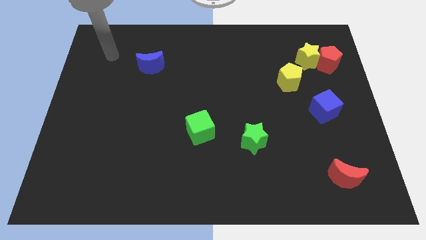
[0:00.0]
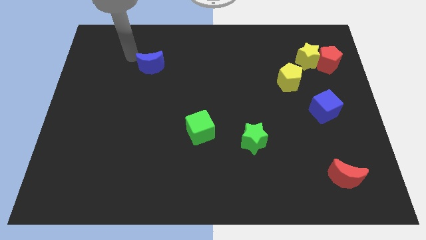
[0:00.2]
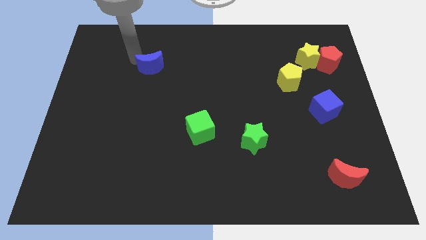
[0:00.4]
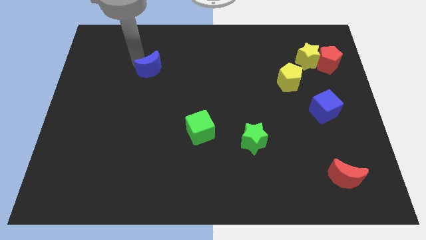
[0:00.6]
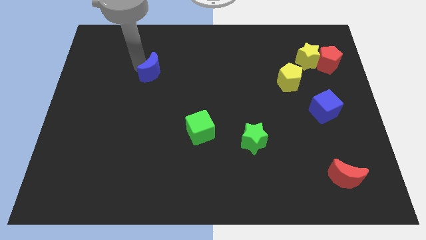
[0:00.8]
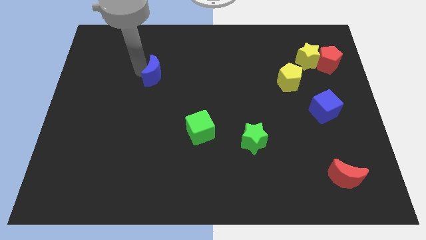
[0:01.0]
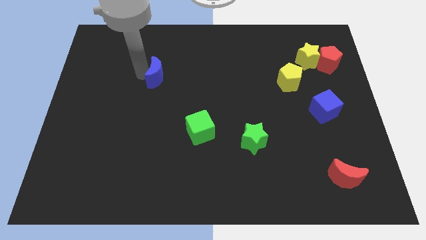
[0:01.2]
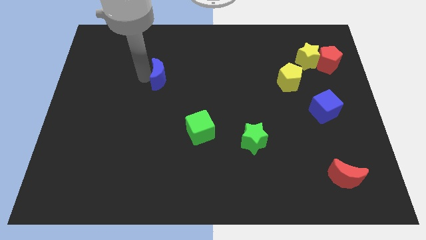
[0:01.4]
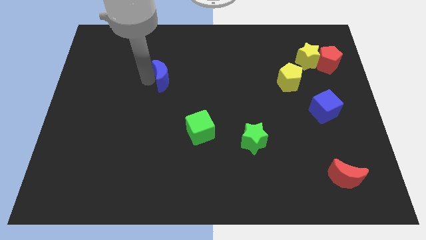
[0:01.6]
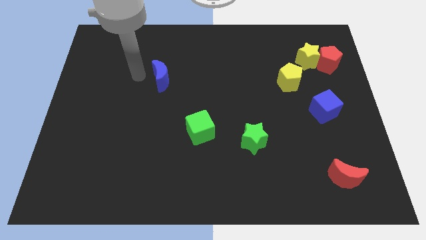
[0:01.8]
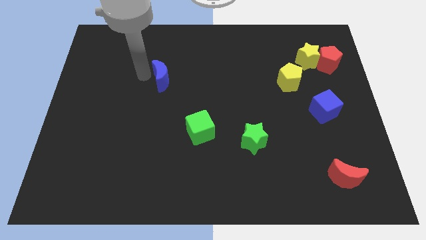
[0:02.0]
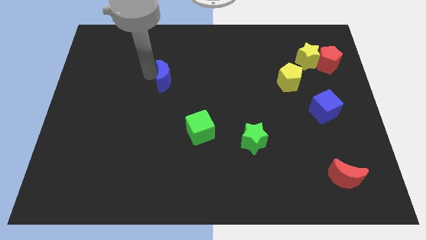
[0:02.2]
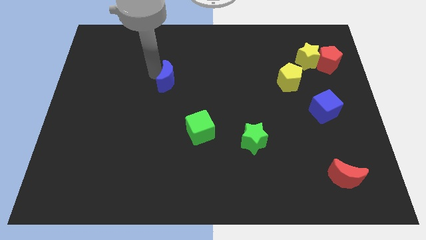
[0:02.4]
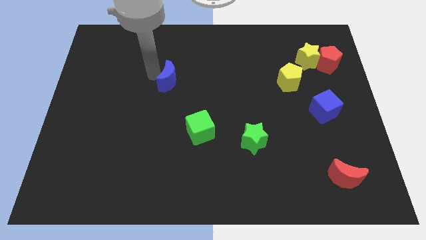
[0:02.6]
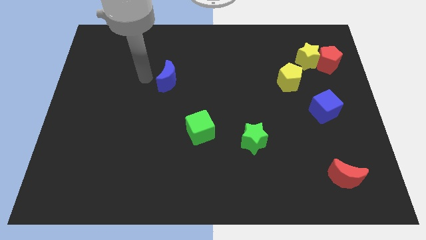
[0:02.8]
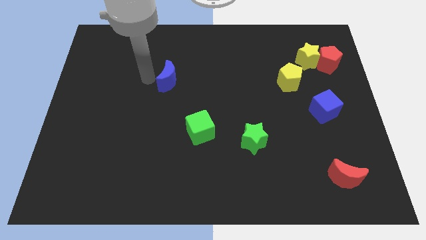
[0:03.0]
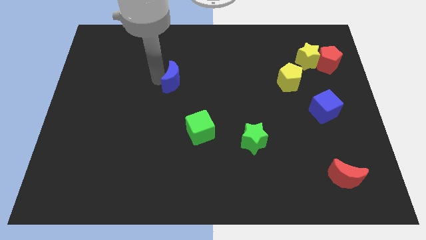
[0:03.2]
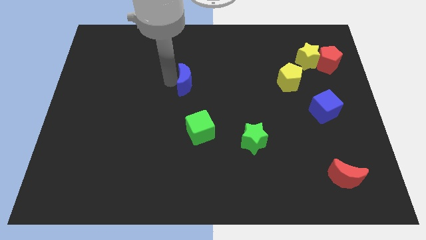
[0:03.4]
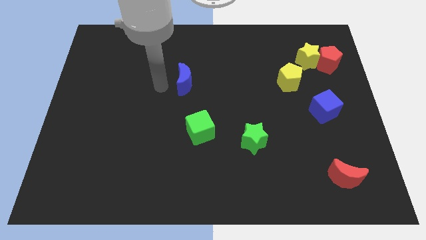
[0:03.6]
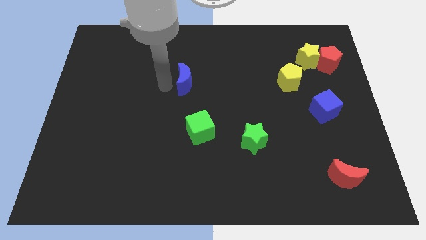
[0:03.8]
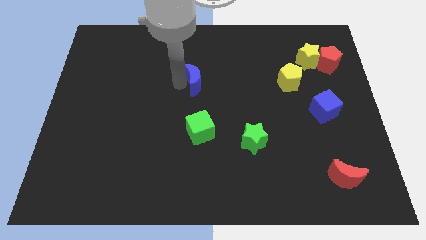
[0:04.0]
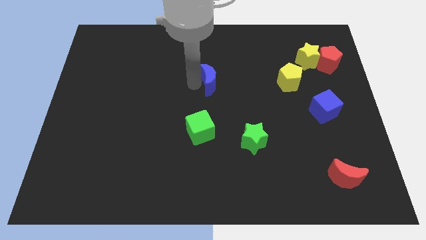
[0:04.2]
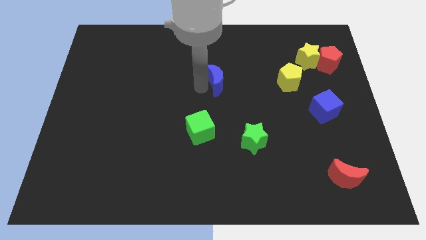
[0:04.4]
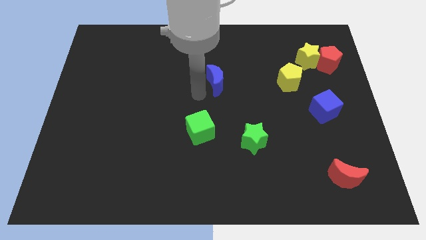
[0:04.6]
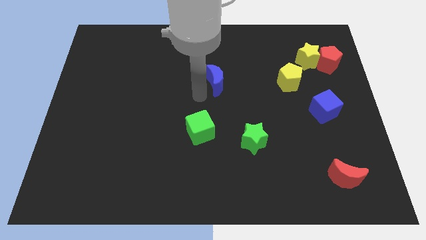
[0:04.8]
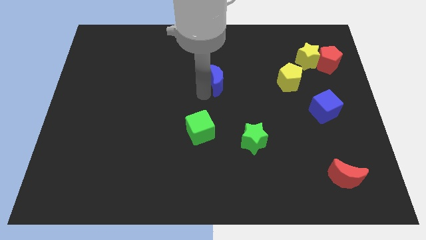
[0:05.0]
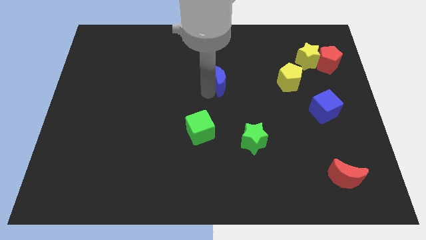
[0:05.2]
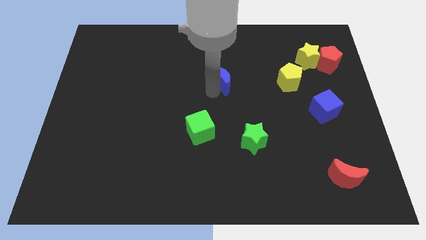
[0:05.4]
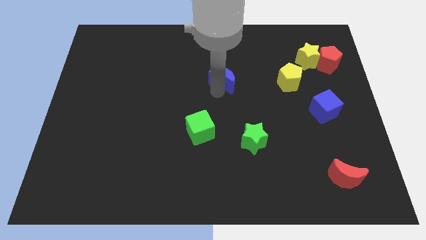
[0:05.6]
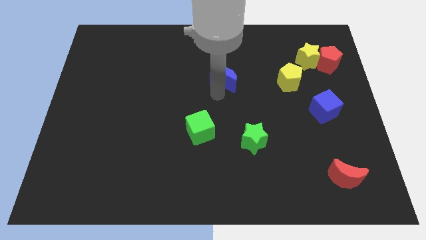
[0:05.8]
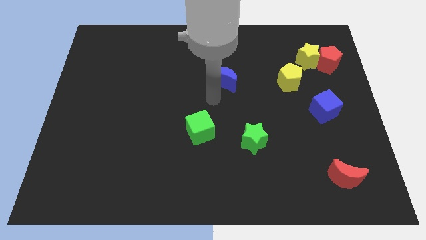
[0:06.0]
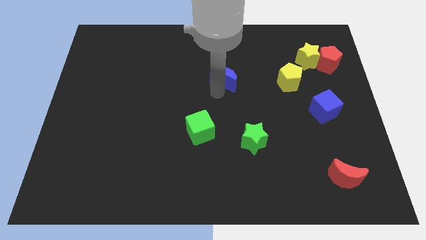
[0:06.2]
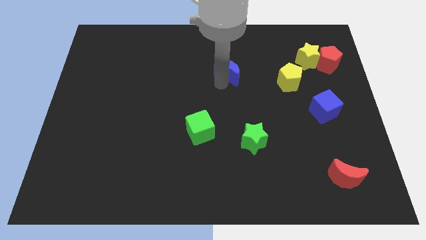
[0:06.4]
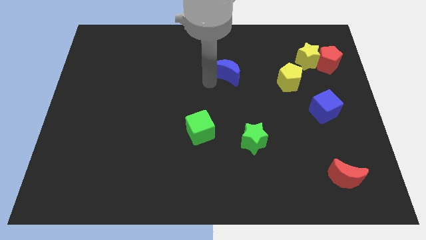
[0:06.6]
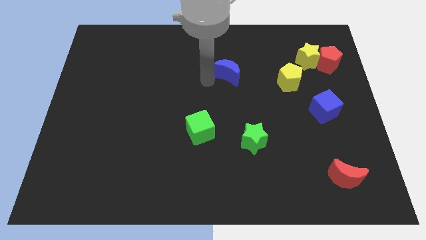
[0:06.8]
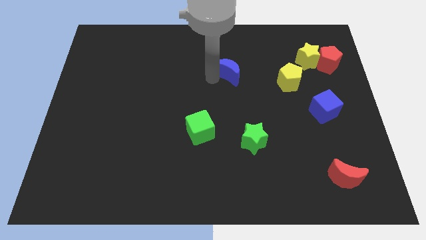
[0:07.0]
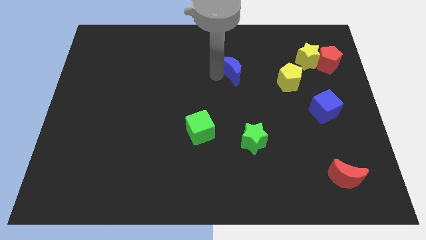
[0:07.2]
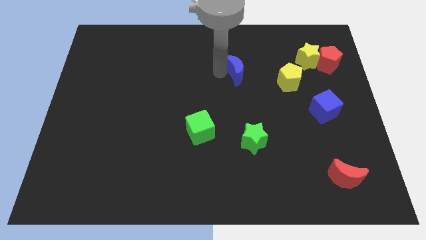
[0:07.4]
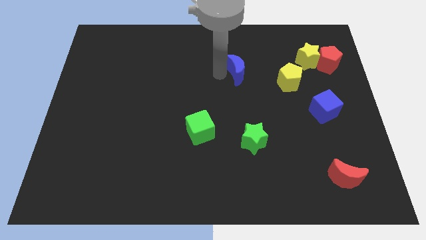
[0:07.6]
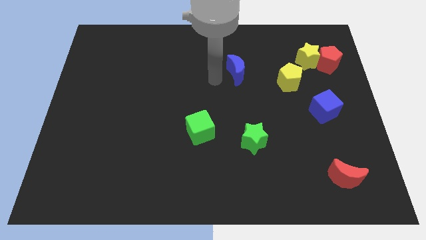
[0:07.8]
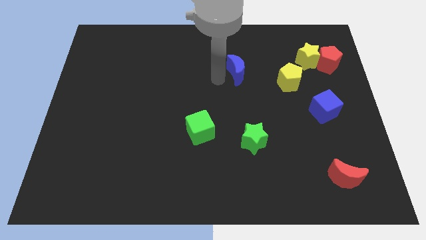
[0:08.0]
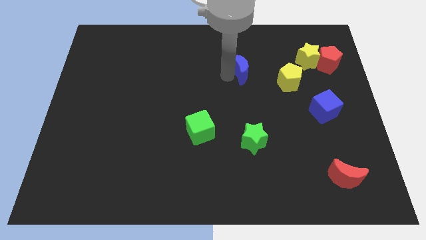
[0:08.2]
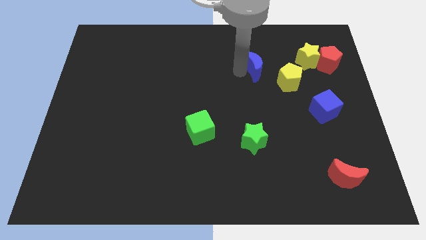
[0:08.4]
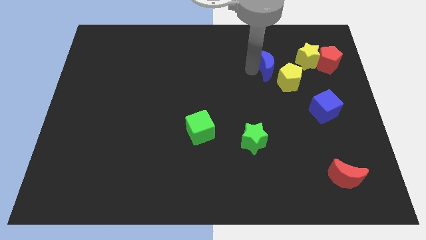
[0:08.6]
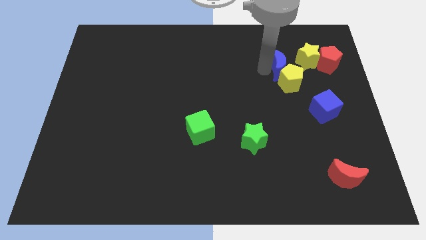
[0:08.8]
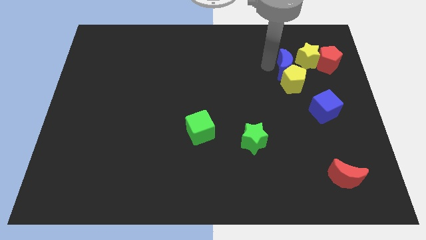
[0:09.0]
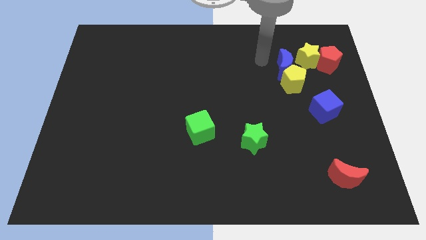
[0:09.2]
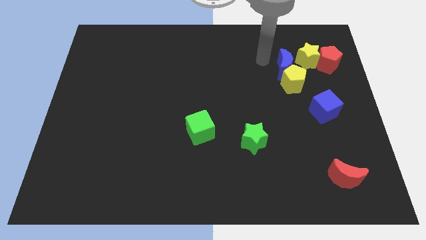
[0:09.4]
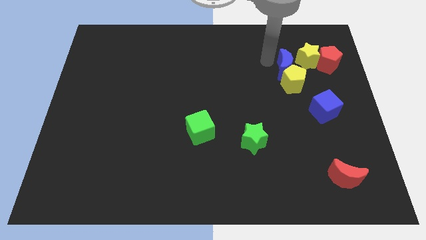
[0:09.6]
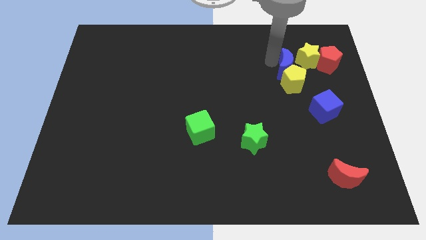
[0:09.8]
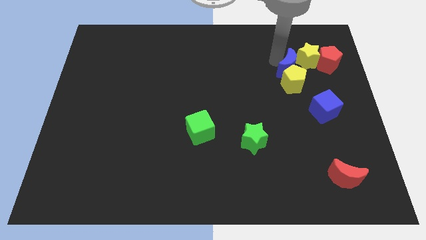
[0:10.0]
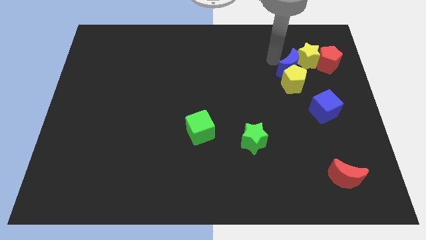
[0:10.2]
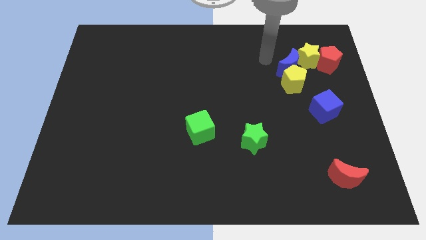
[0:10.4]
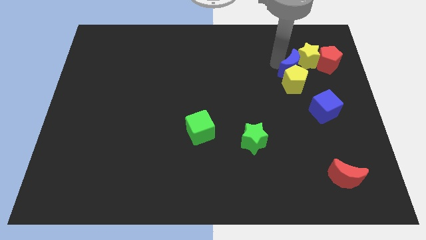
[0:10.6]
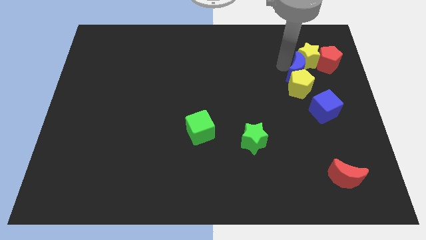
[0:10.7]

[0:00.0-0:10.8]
move the blue moon to the top of the blue cube

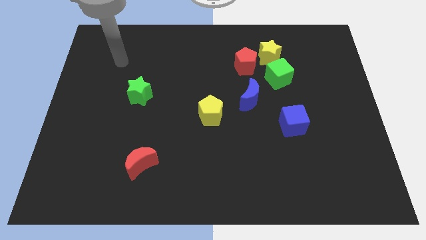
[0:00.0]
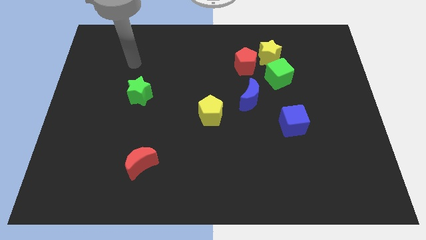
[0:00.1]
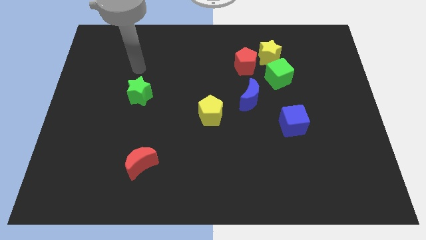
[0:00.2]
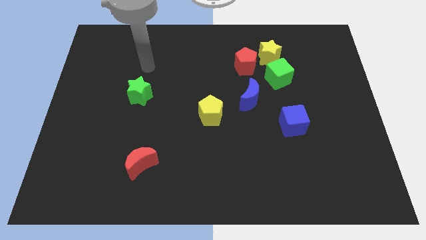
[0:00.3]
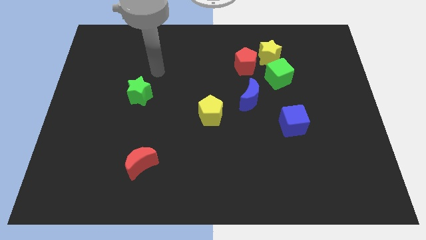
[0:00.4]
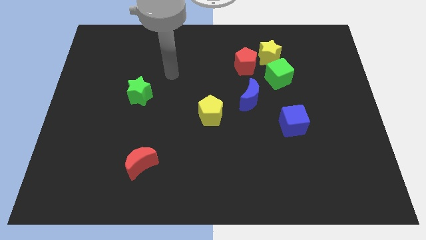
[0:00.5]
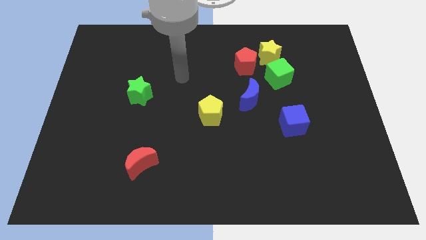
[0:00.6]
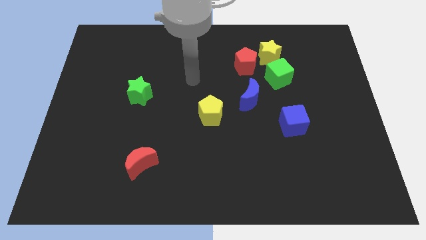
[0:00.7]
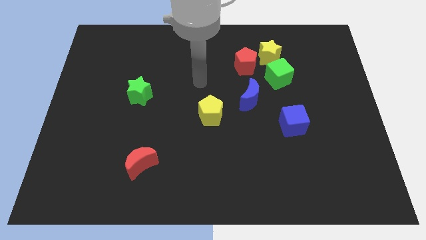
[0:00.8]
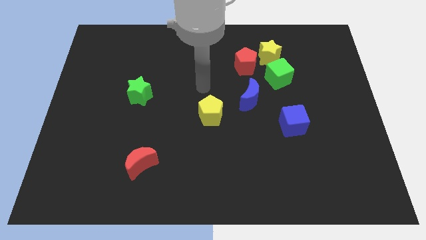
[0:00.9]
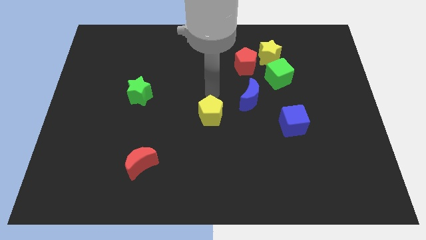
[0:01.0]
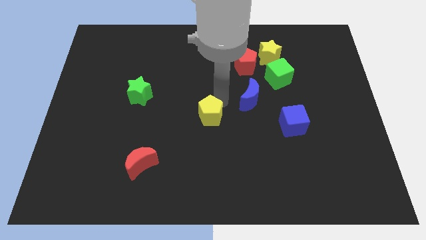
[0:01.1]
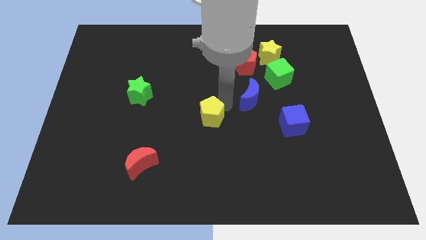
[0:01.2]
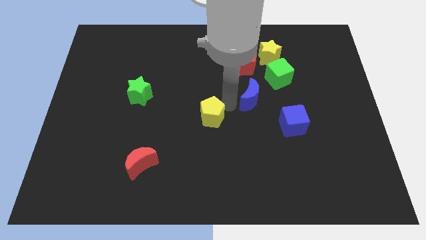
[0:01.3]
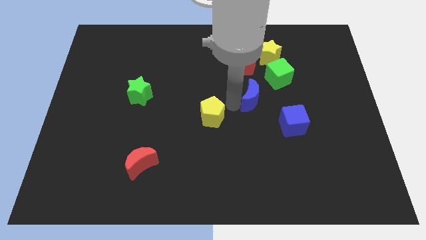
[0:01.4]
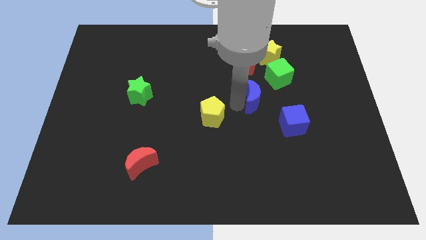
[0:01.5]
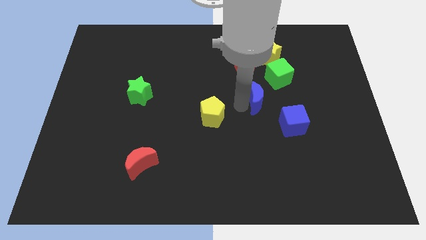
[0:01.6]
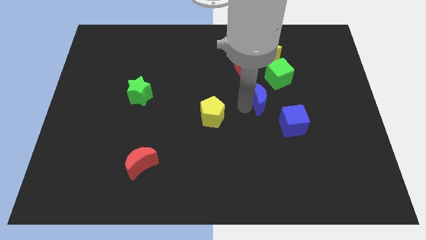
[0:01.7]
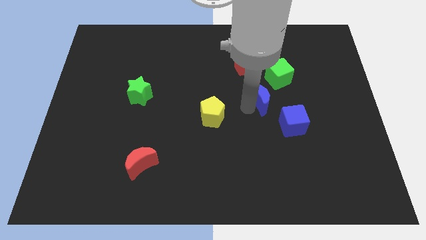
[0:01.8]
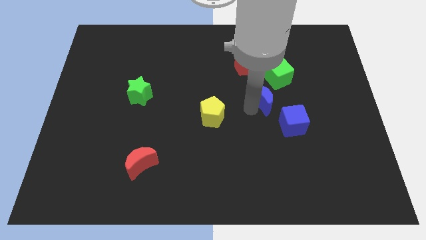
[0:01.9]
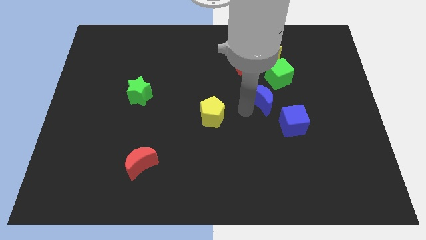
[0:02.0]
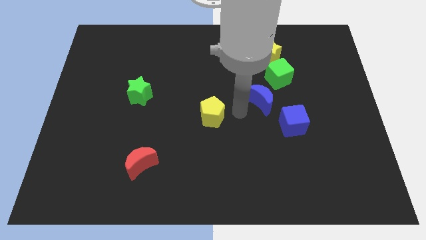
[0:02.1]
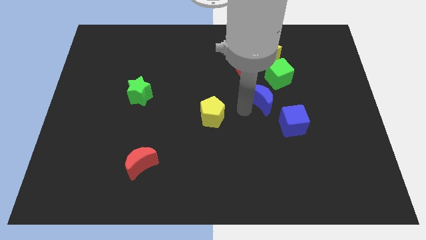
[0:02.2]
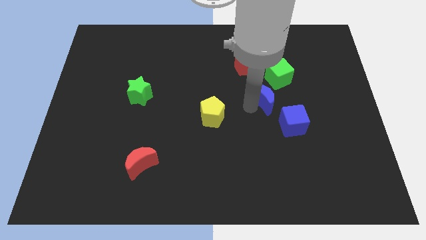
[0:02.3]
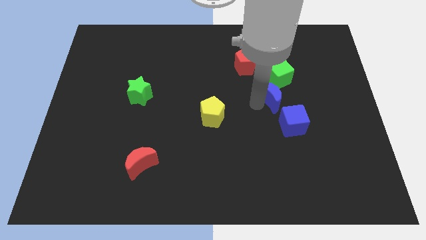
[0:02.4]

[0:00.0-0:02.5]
put the blue moon to the top side of the blue cube

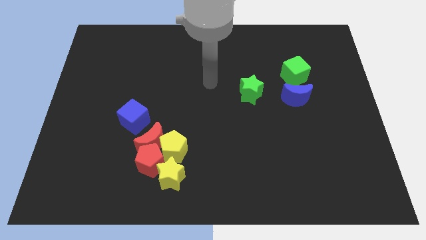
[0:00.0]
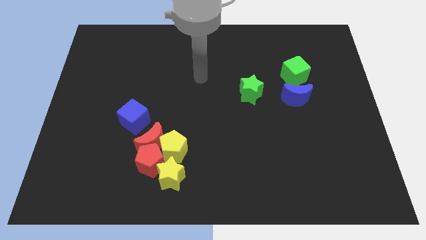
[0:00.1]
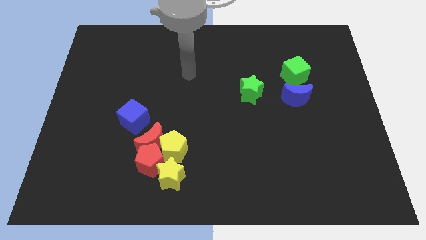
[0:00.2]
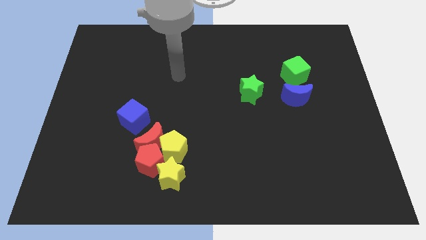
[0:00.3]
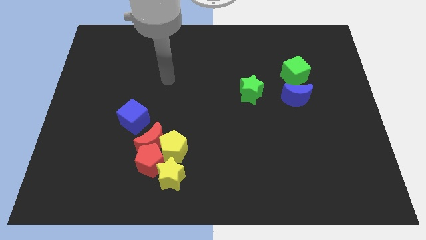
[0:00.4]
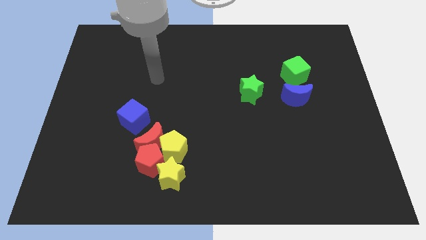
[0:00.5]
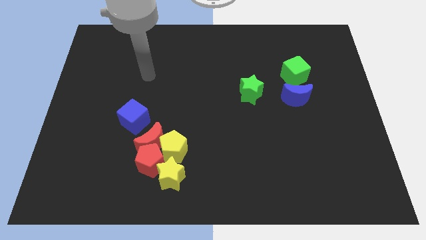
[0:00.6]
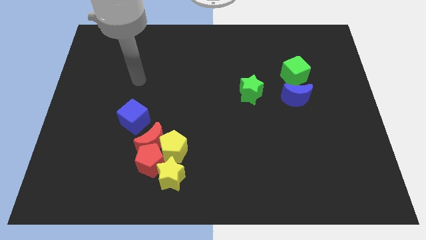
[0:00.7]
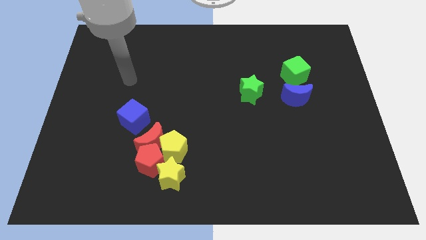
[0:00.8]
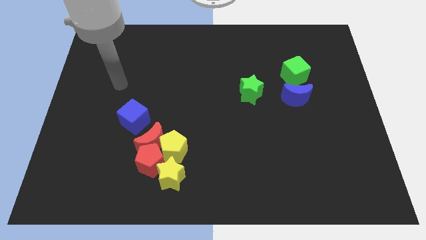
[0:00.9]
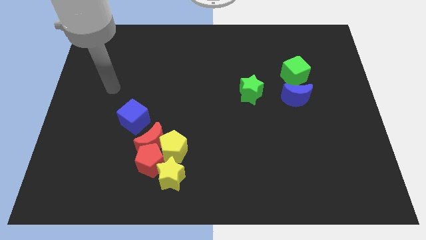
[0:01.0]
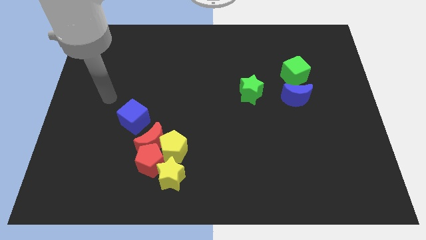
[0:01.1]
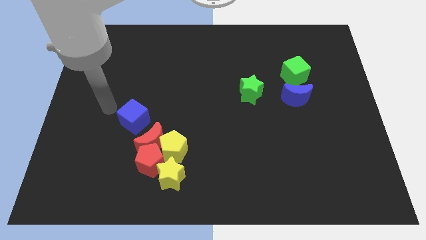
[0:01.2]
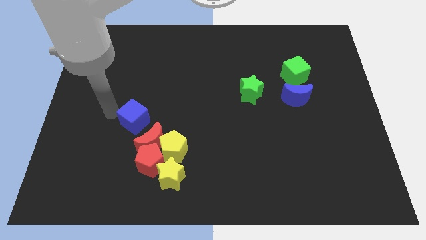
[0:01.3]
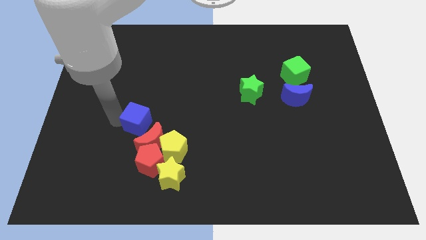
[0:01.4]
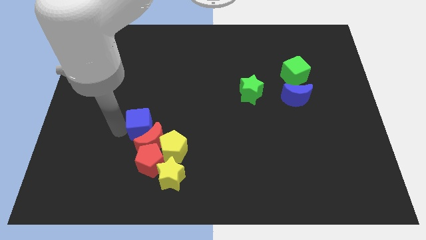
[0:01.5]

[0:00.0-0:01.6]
move the red moon to the right of the blue cube
